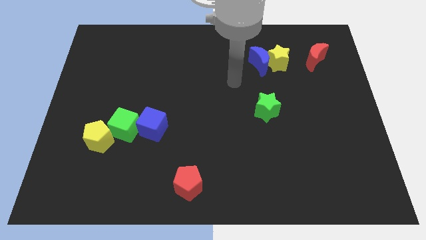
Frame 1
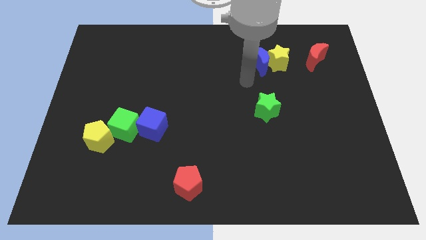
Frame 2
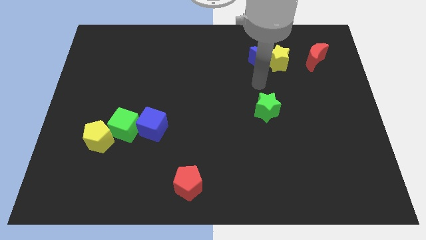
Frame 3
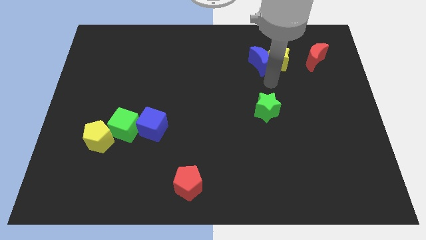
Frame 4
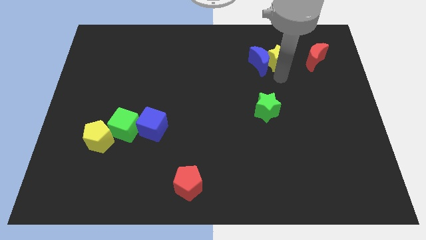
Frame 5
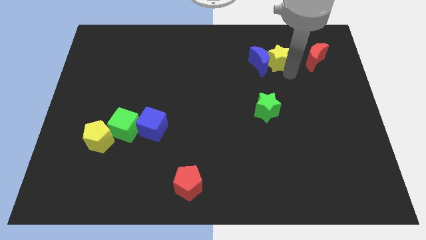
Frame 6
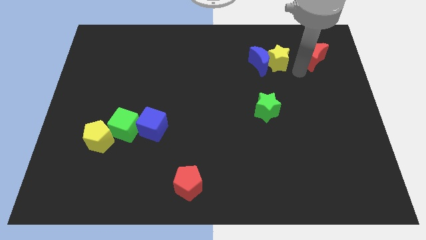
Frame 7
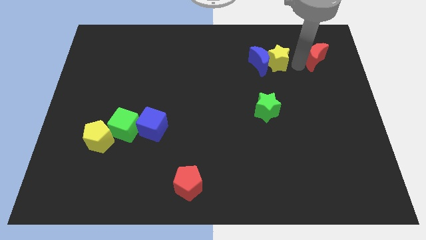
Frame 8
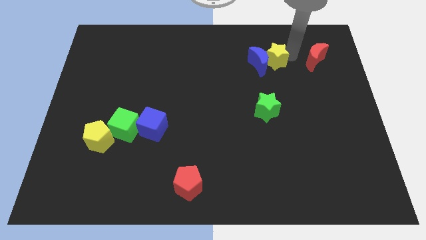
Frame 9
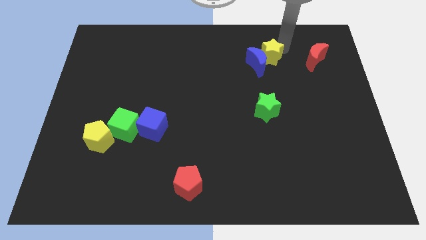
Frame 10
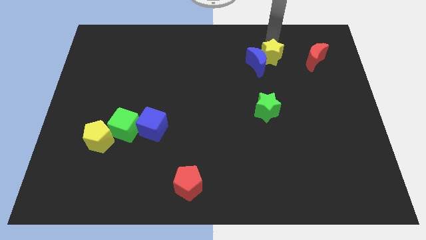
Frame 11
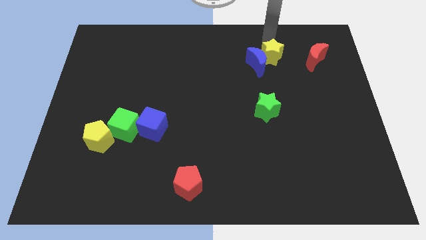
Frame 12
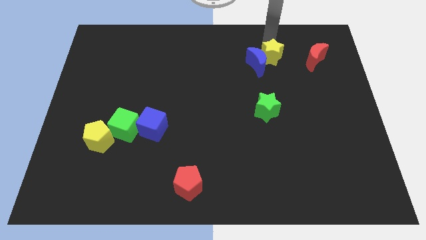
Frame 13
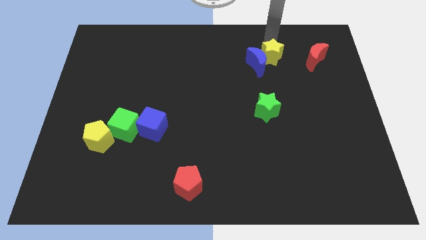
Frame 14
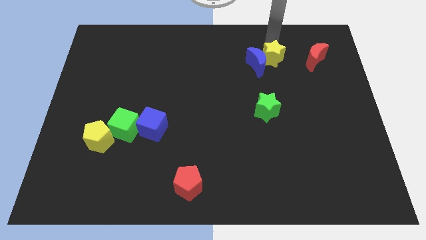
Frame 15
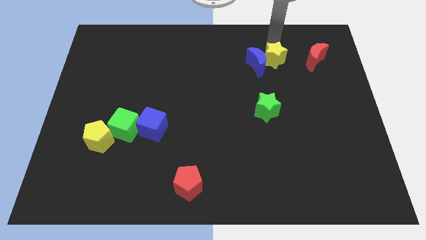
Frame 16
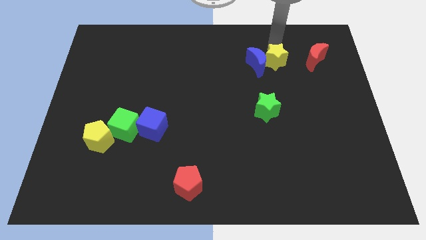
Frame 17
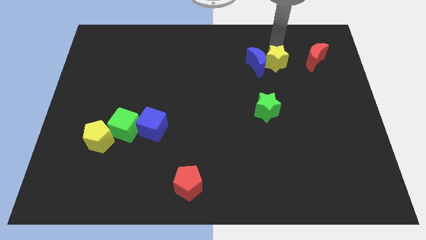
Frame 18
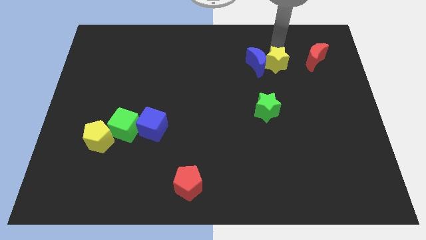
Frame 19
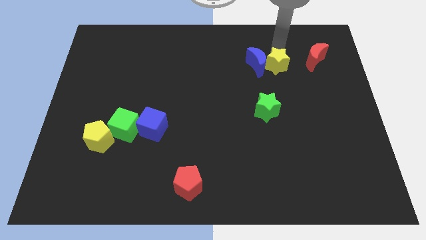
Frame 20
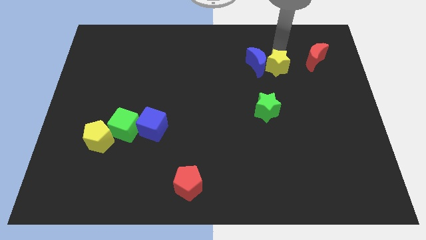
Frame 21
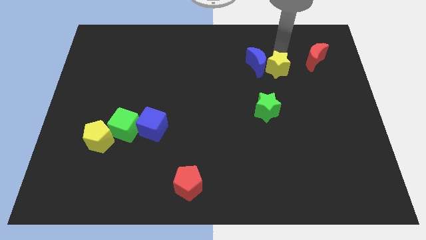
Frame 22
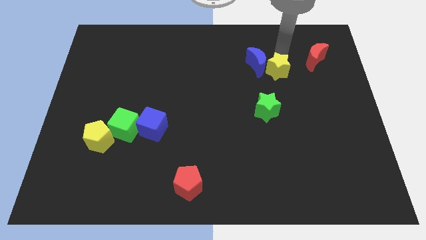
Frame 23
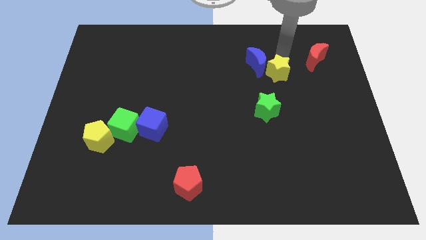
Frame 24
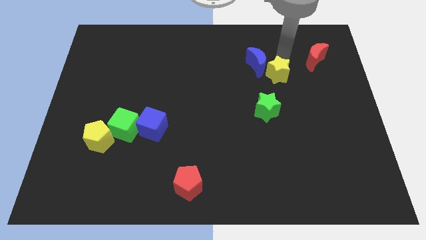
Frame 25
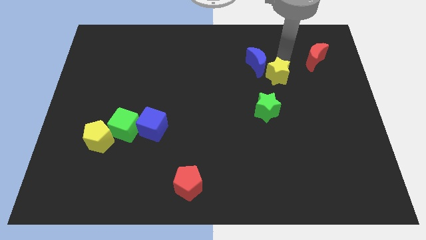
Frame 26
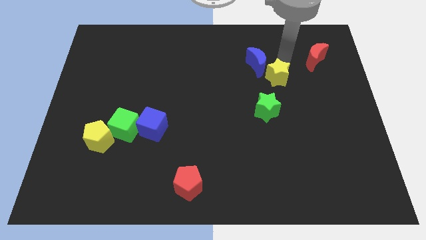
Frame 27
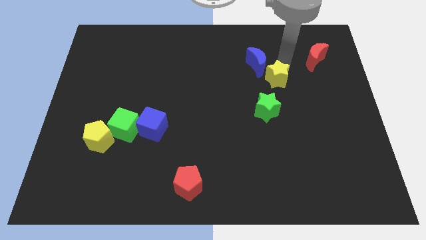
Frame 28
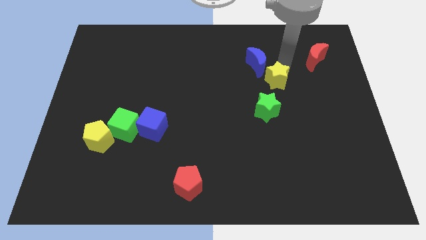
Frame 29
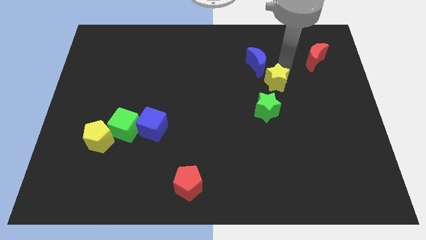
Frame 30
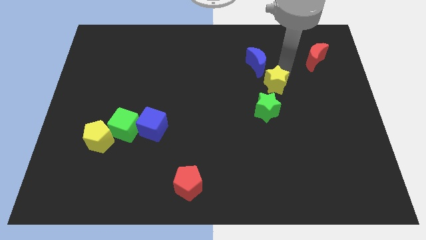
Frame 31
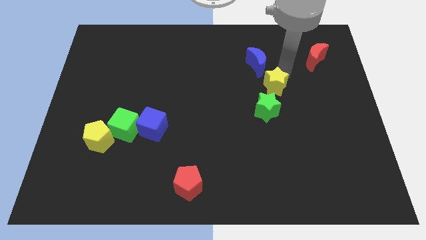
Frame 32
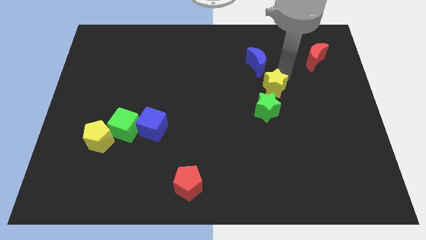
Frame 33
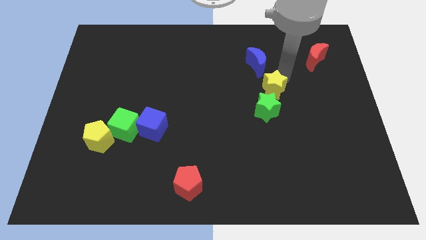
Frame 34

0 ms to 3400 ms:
slide the yellow star diagonally down and to the left slightly

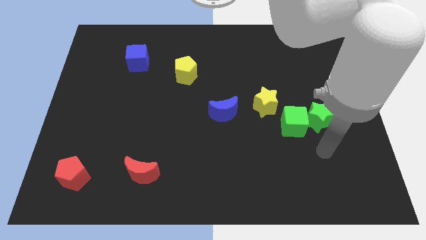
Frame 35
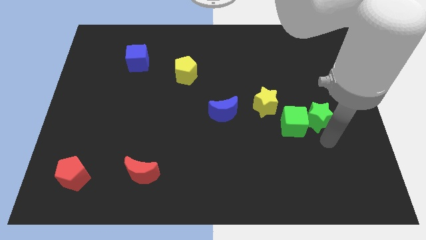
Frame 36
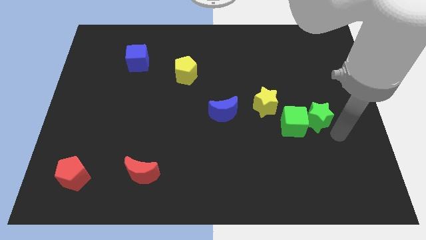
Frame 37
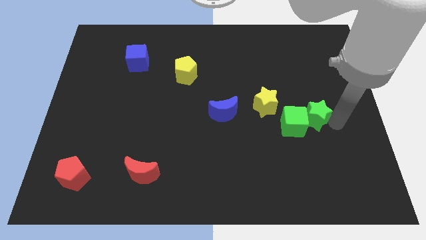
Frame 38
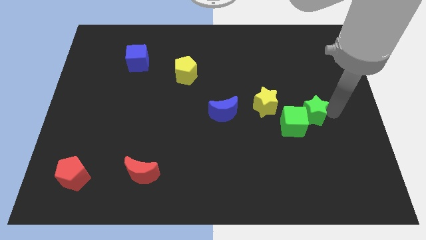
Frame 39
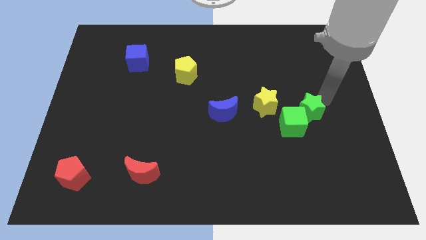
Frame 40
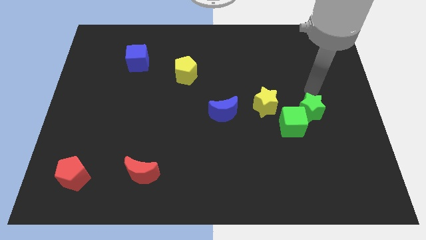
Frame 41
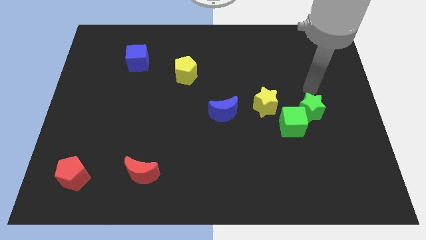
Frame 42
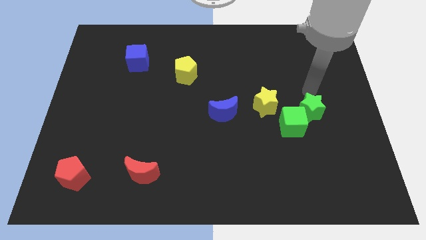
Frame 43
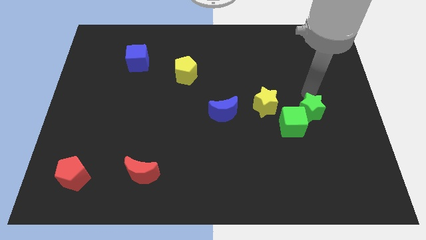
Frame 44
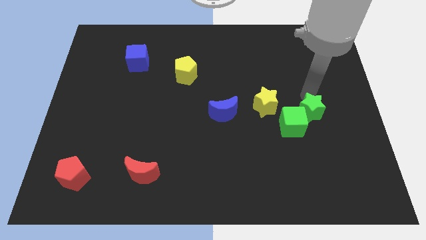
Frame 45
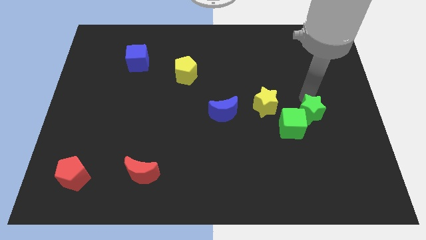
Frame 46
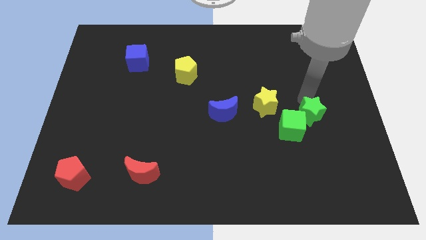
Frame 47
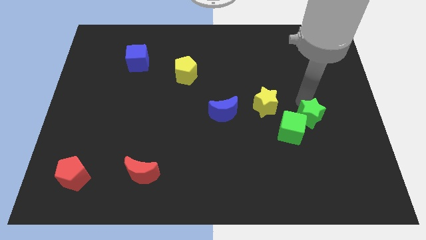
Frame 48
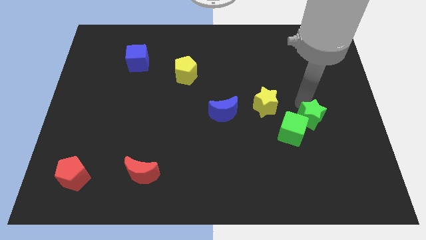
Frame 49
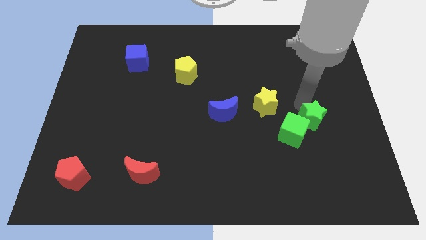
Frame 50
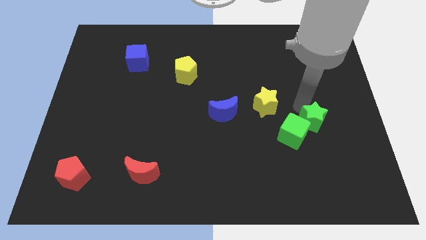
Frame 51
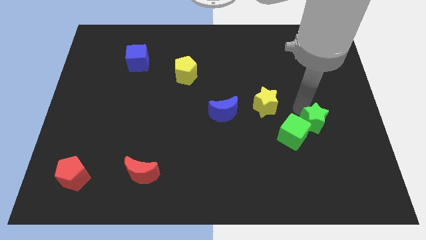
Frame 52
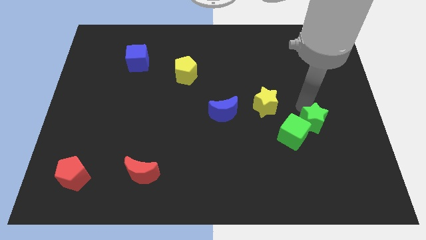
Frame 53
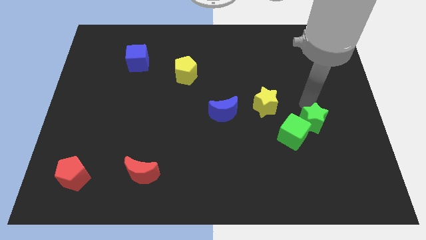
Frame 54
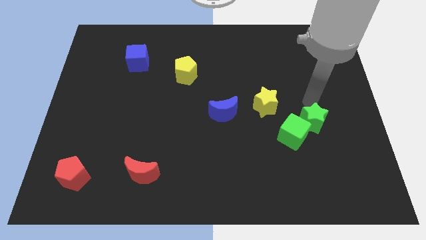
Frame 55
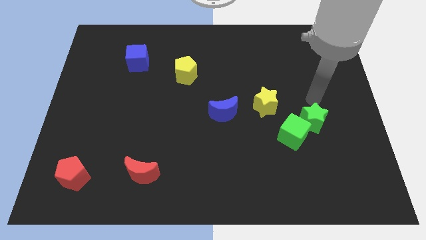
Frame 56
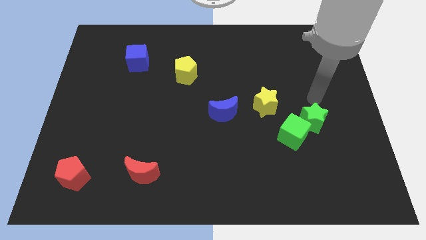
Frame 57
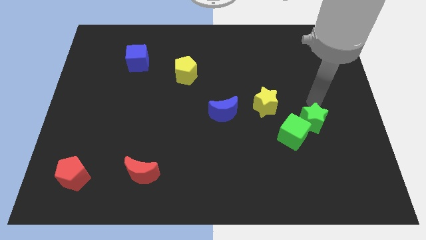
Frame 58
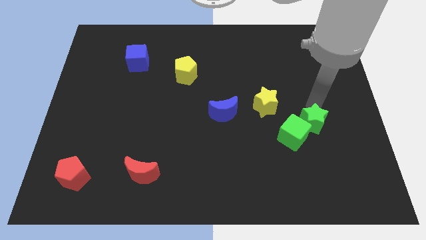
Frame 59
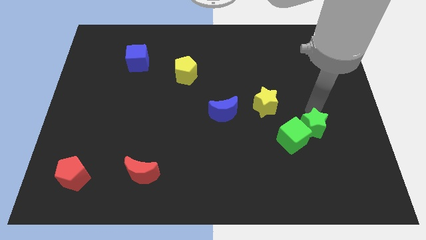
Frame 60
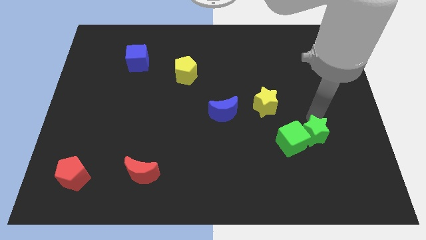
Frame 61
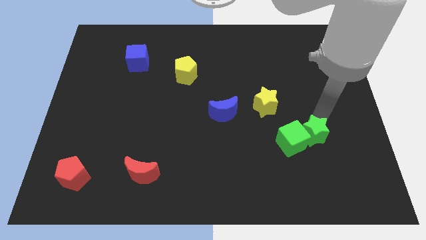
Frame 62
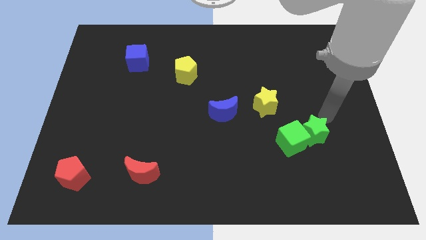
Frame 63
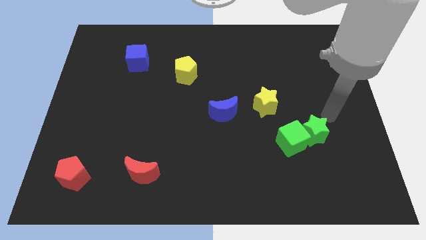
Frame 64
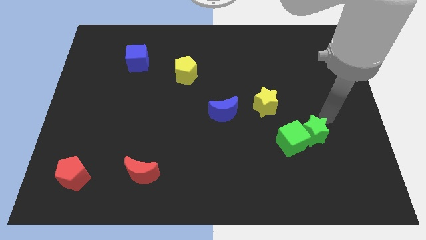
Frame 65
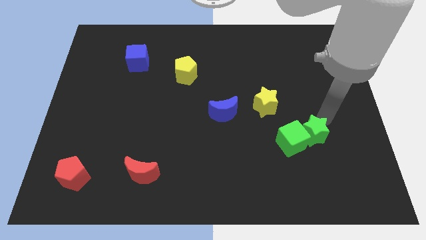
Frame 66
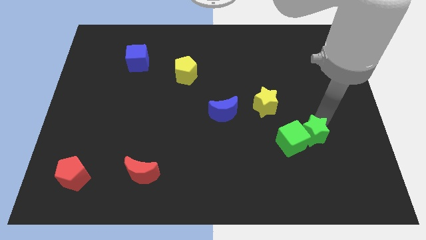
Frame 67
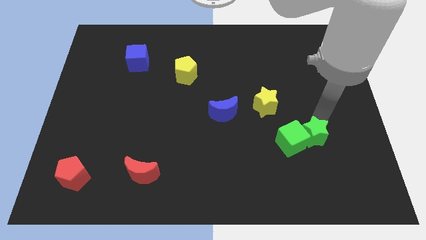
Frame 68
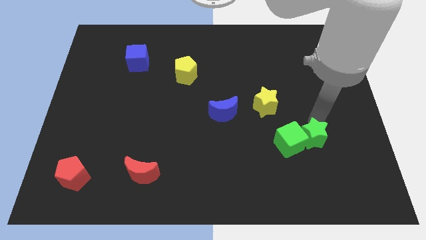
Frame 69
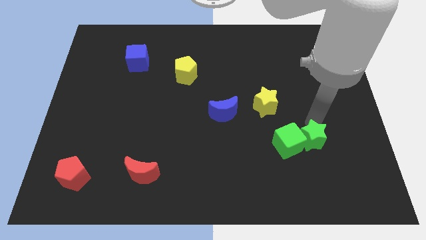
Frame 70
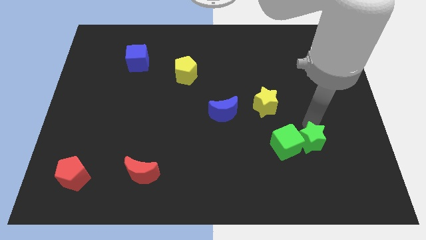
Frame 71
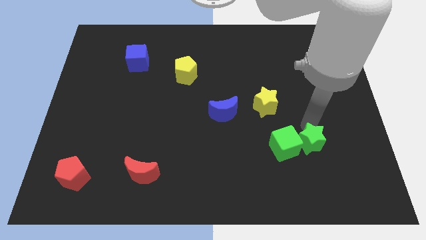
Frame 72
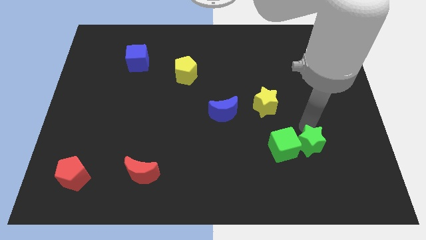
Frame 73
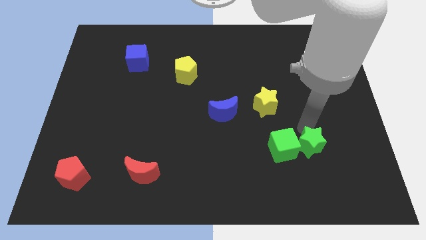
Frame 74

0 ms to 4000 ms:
move the green star down and to the left slightly

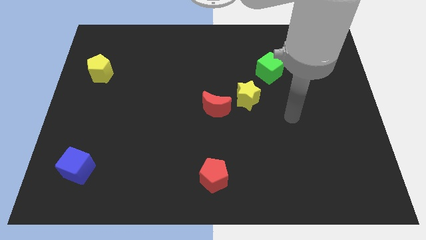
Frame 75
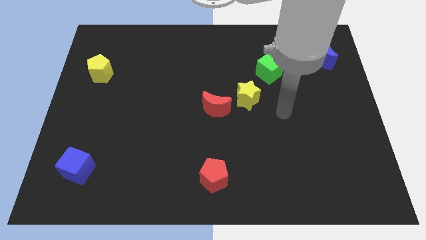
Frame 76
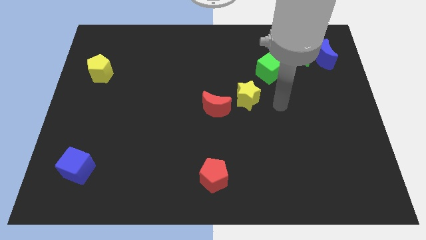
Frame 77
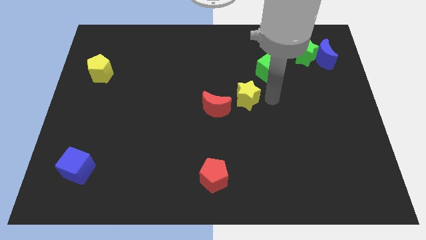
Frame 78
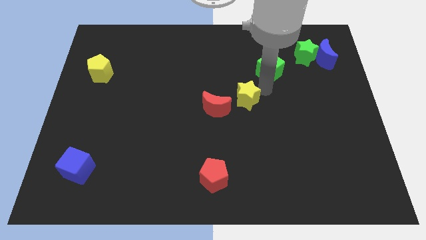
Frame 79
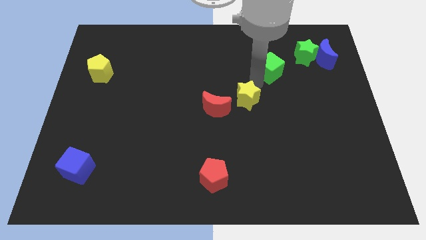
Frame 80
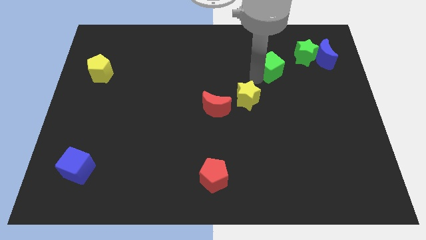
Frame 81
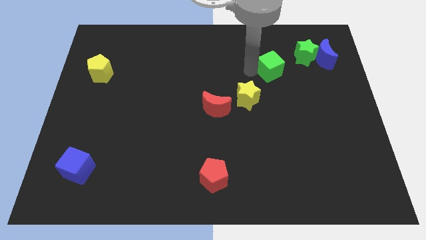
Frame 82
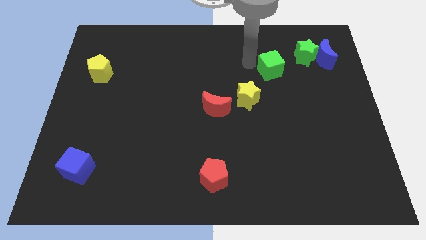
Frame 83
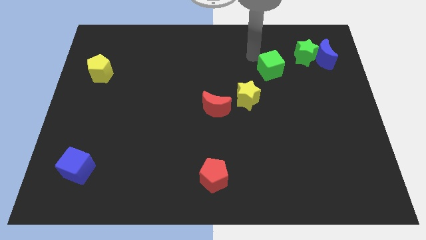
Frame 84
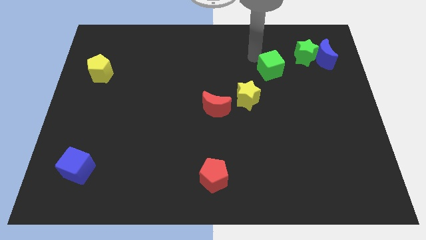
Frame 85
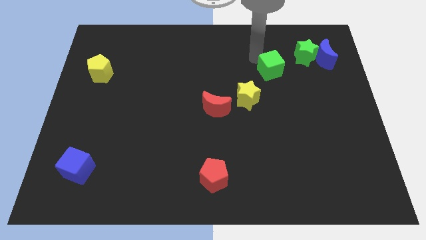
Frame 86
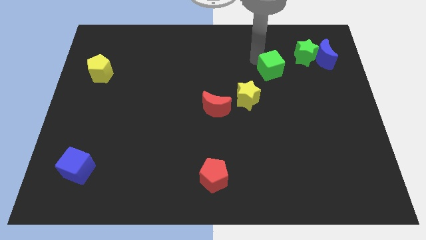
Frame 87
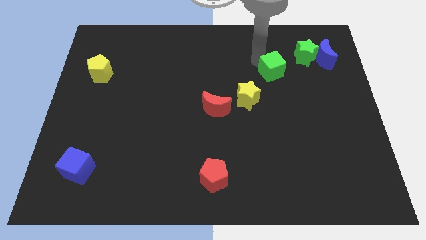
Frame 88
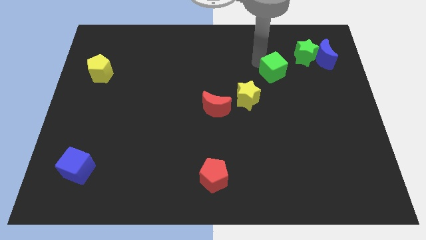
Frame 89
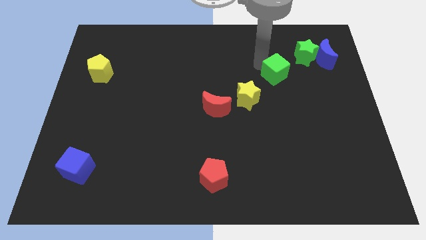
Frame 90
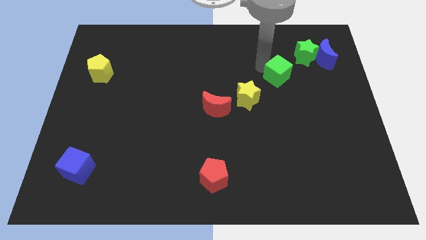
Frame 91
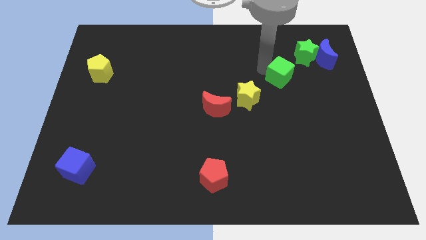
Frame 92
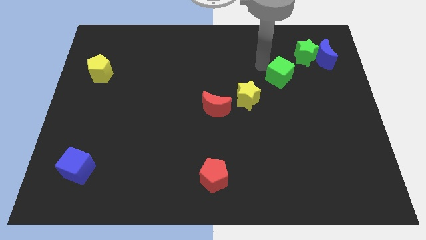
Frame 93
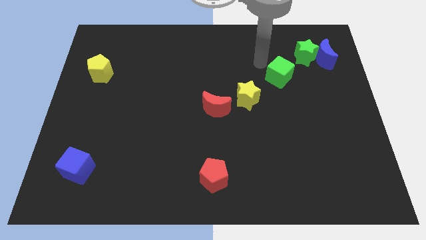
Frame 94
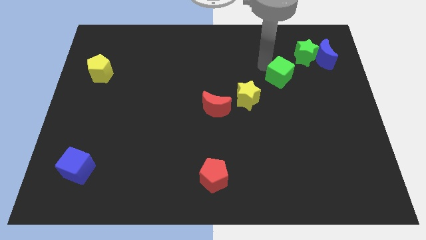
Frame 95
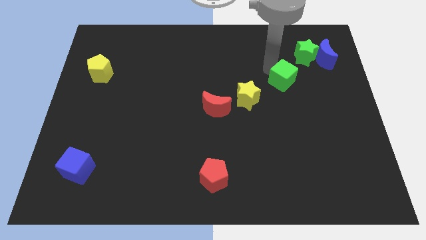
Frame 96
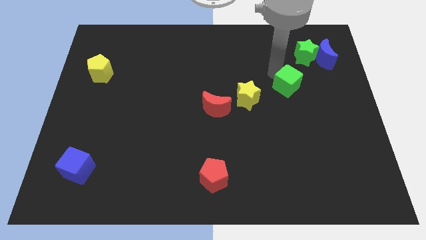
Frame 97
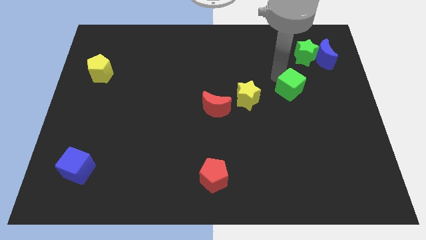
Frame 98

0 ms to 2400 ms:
push the green cube a bit down and right diagonally
